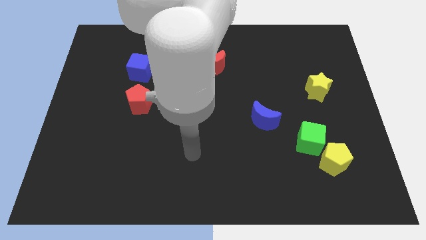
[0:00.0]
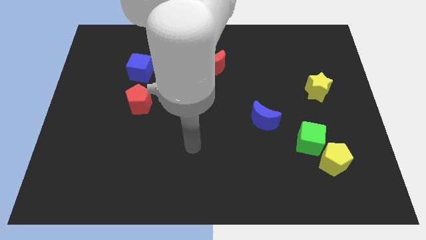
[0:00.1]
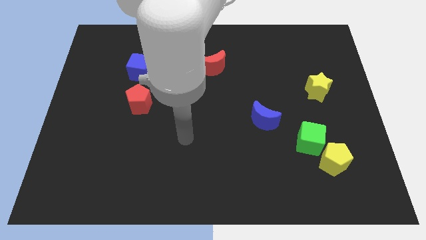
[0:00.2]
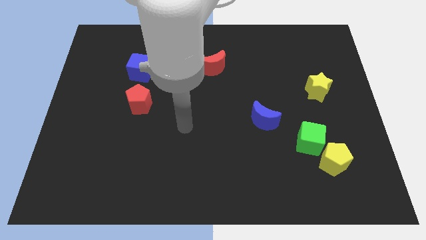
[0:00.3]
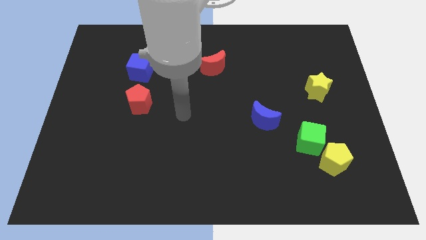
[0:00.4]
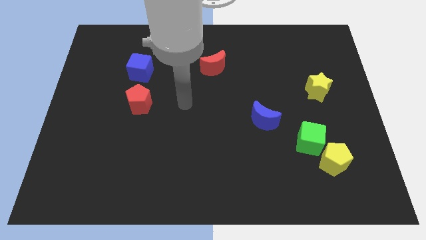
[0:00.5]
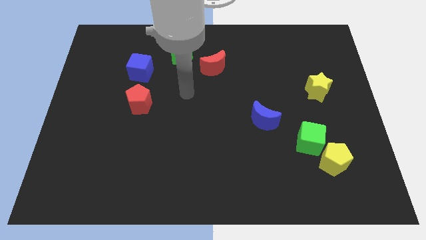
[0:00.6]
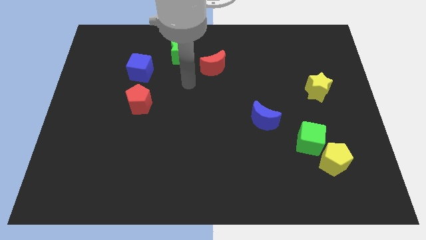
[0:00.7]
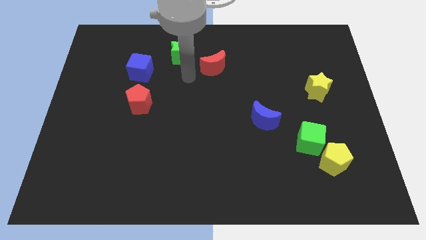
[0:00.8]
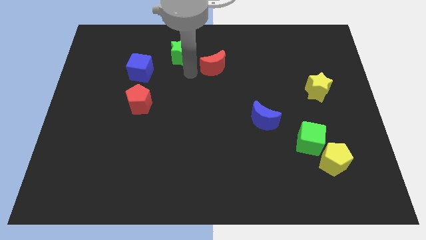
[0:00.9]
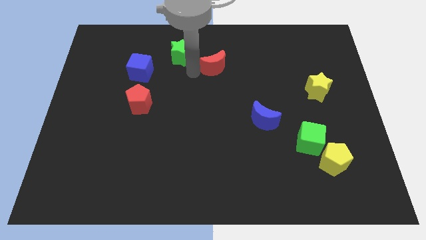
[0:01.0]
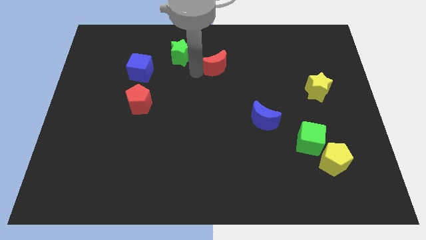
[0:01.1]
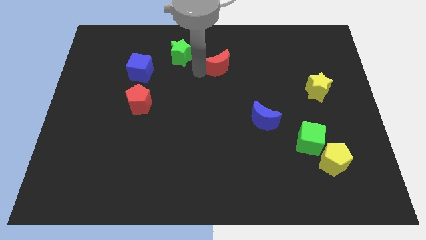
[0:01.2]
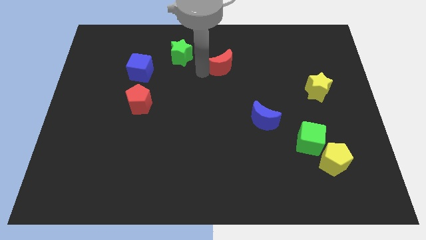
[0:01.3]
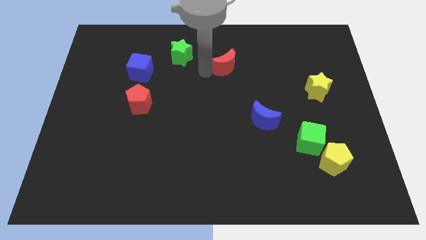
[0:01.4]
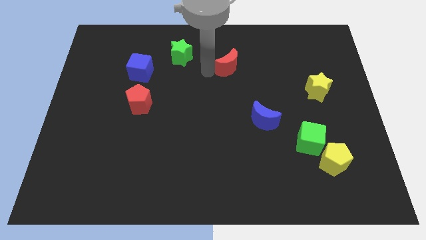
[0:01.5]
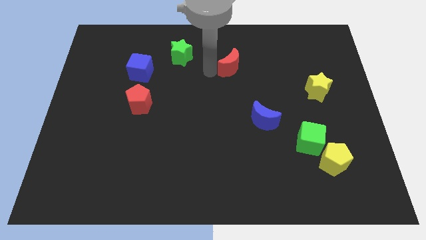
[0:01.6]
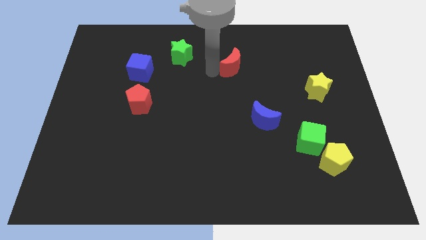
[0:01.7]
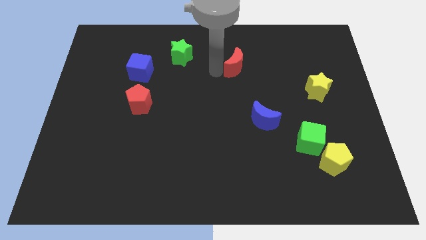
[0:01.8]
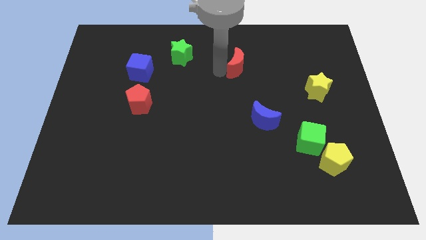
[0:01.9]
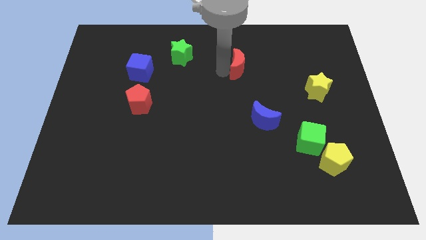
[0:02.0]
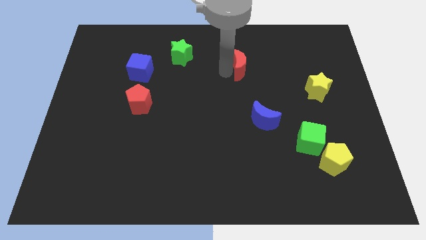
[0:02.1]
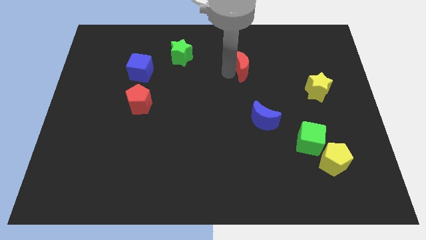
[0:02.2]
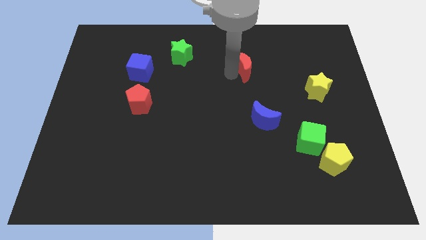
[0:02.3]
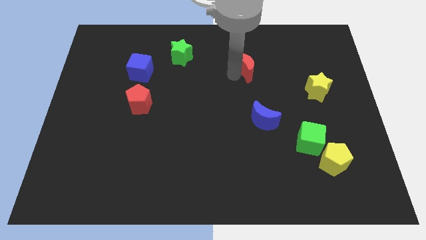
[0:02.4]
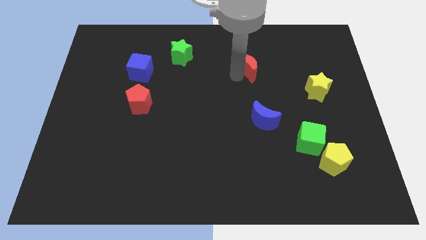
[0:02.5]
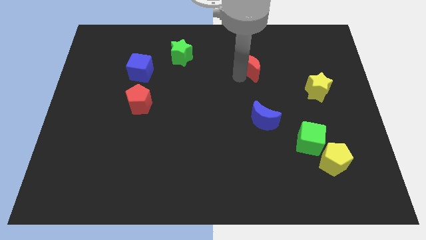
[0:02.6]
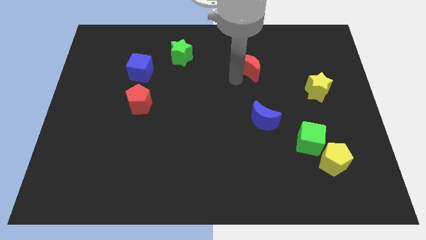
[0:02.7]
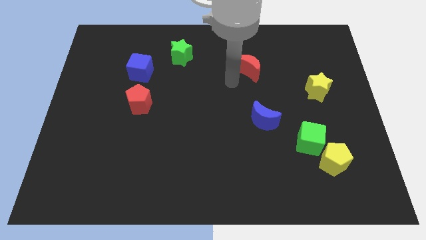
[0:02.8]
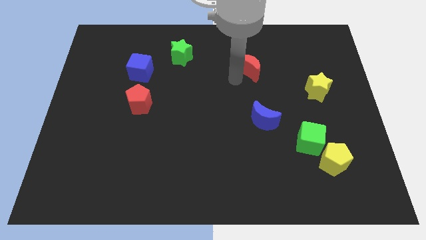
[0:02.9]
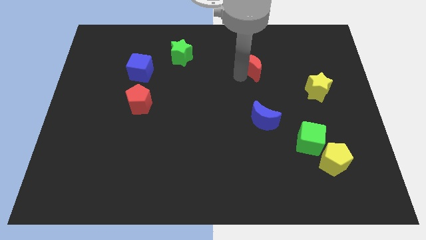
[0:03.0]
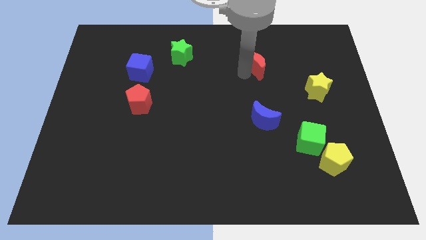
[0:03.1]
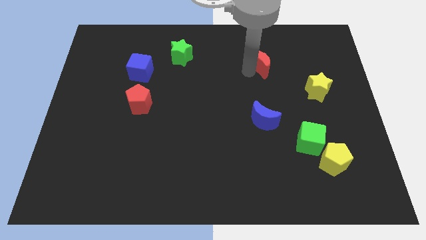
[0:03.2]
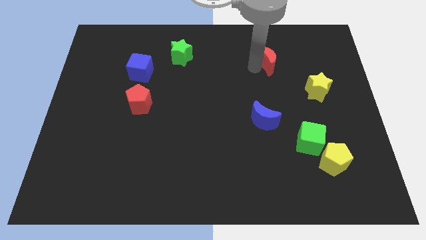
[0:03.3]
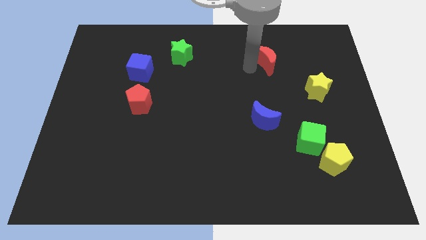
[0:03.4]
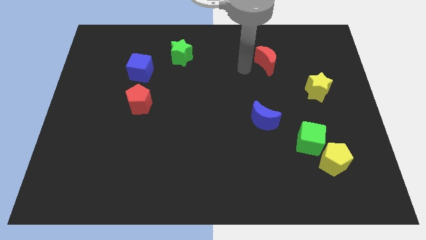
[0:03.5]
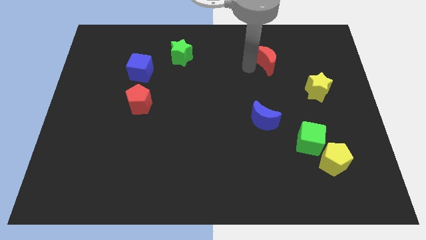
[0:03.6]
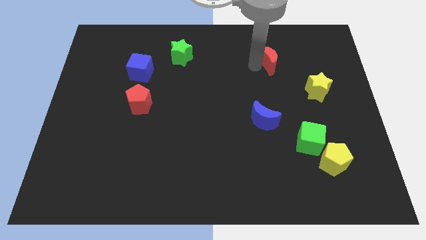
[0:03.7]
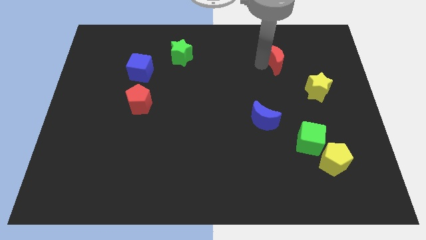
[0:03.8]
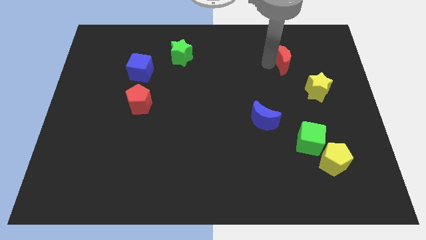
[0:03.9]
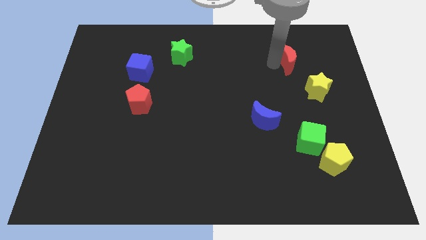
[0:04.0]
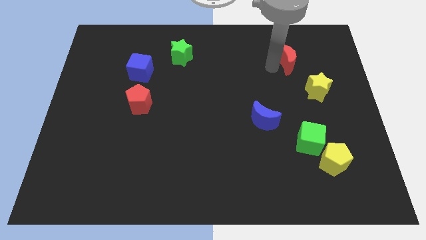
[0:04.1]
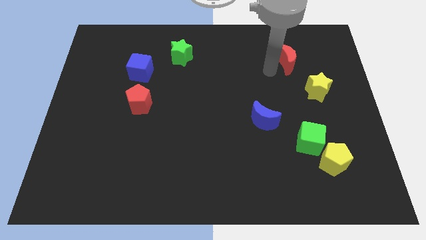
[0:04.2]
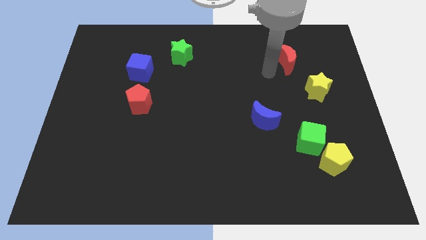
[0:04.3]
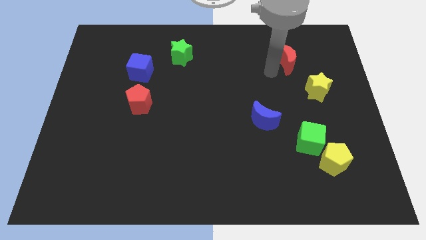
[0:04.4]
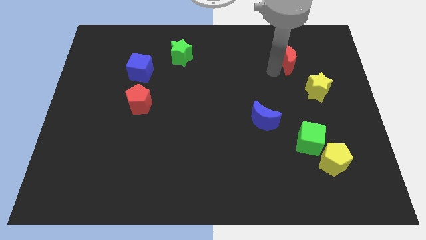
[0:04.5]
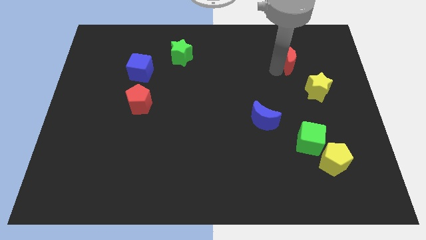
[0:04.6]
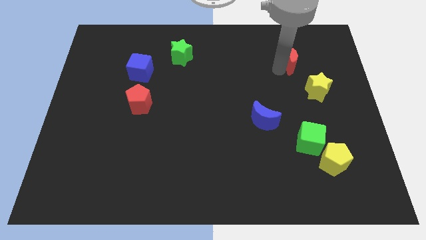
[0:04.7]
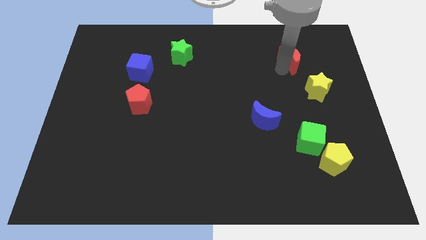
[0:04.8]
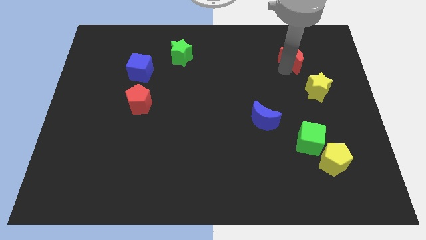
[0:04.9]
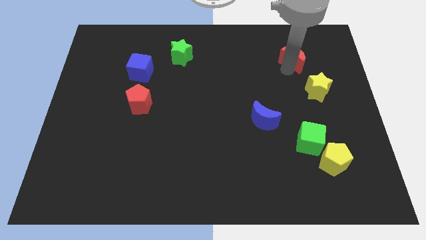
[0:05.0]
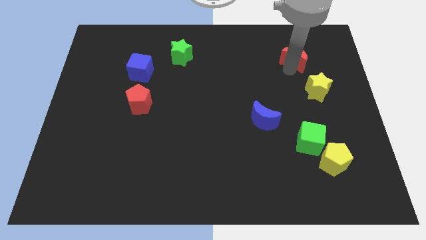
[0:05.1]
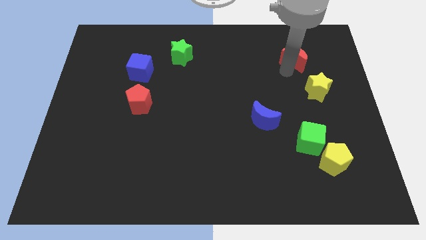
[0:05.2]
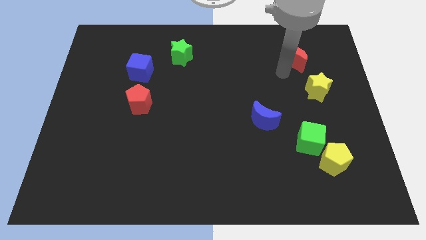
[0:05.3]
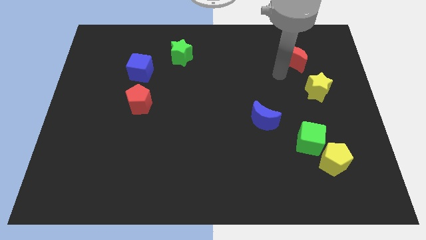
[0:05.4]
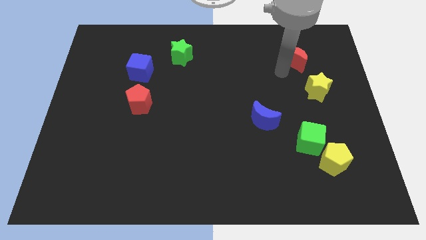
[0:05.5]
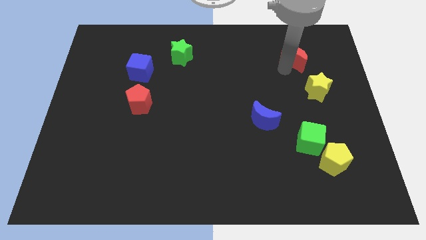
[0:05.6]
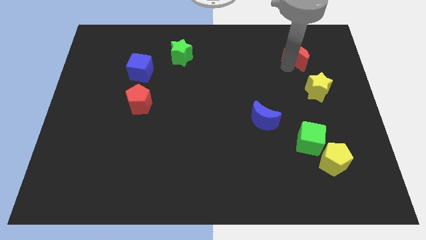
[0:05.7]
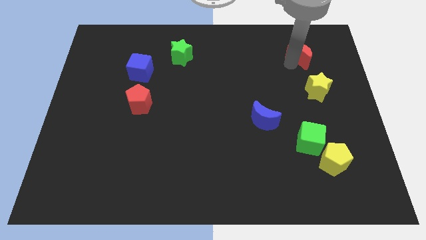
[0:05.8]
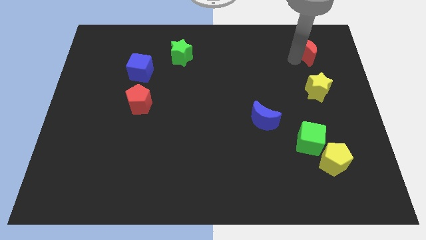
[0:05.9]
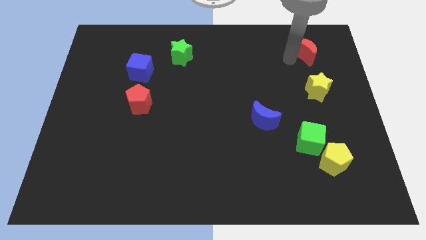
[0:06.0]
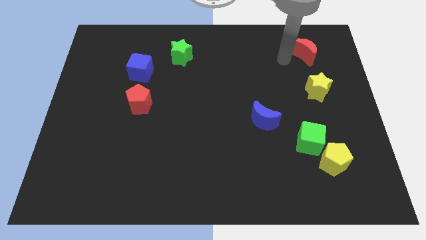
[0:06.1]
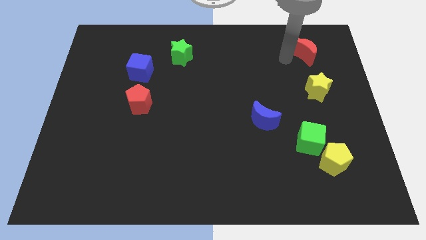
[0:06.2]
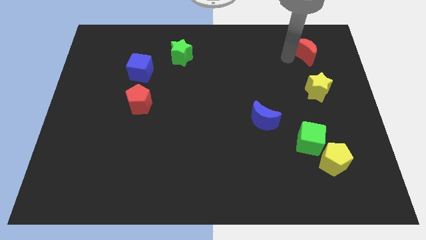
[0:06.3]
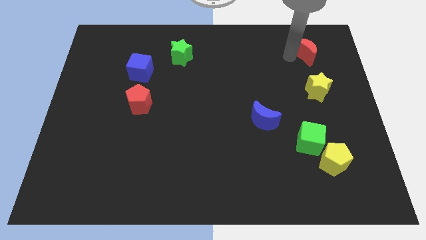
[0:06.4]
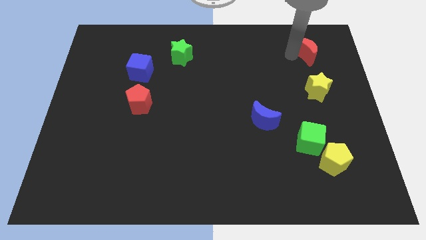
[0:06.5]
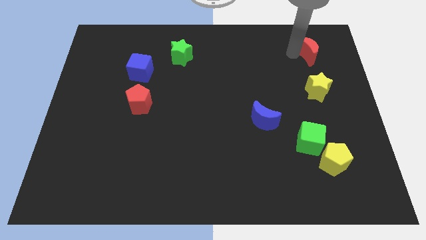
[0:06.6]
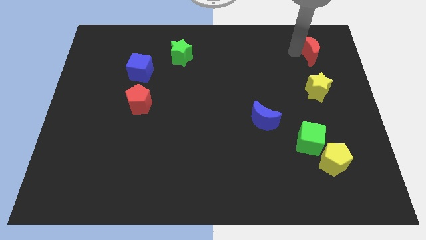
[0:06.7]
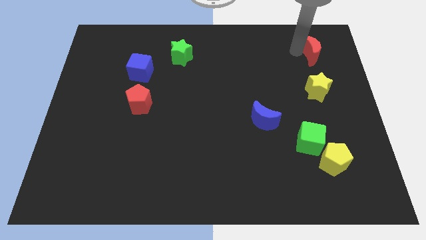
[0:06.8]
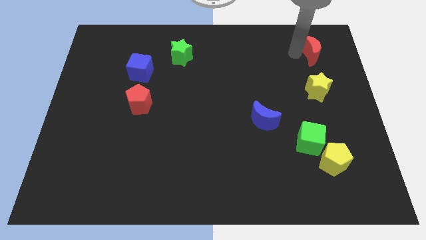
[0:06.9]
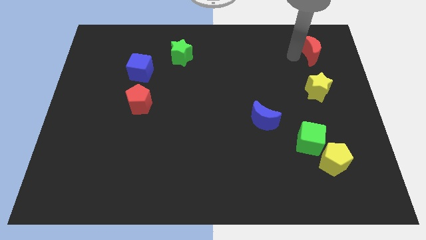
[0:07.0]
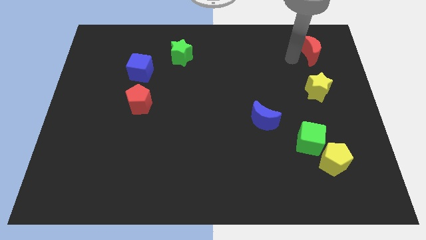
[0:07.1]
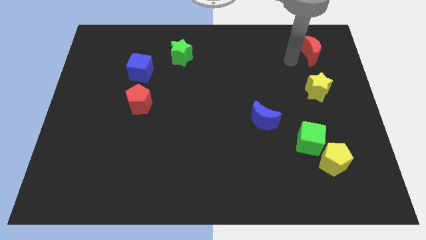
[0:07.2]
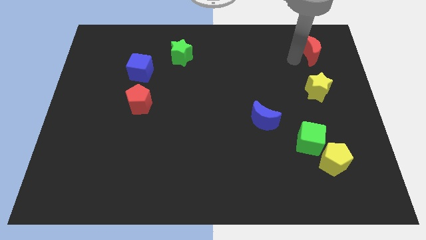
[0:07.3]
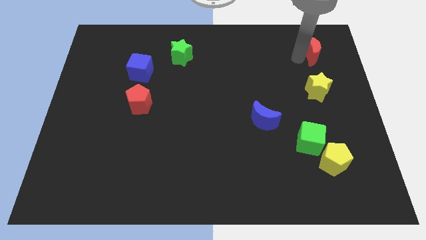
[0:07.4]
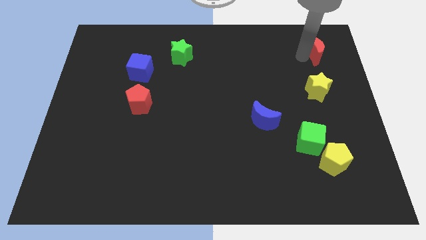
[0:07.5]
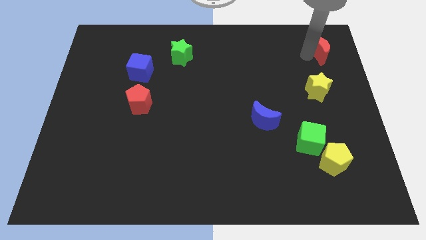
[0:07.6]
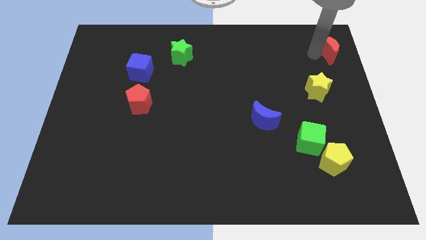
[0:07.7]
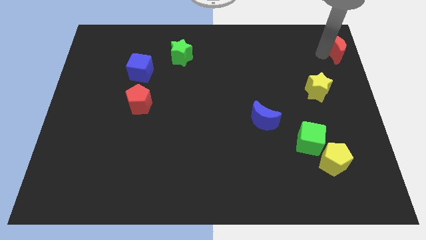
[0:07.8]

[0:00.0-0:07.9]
put the red moon to the upper right corner
